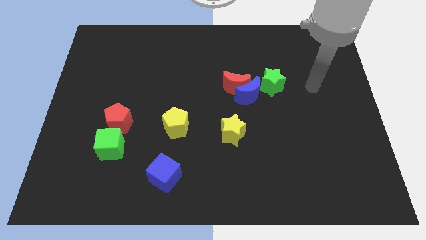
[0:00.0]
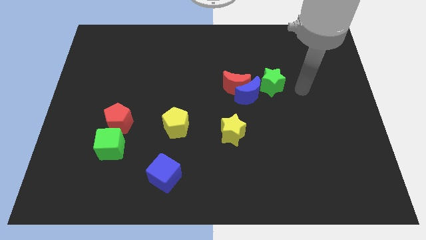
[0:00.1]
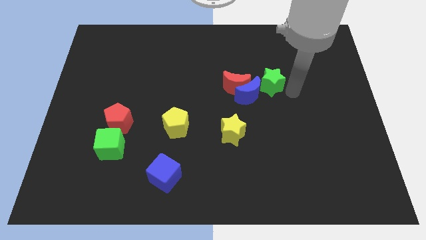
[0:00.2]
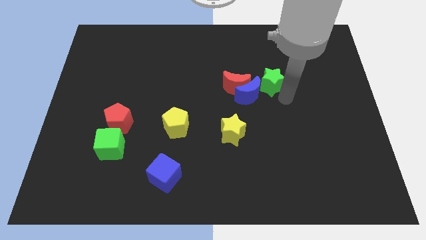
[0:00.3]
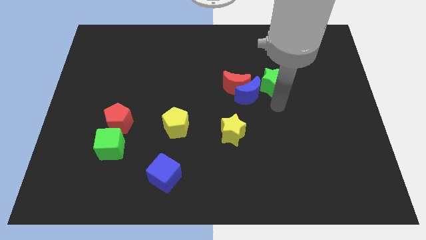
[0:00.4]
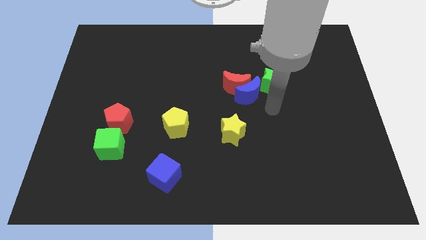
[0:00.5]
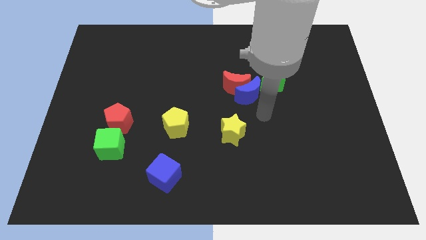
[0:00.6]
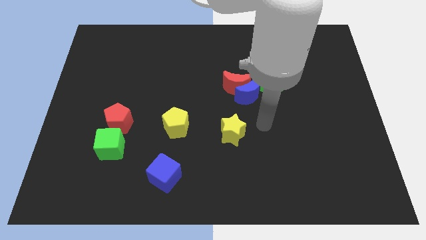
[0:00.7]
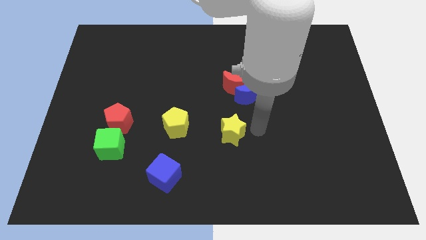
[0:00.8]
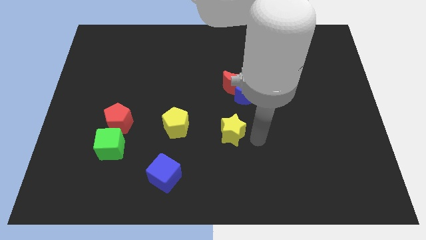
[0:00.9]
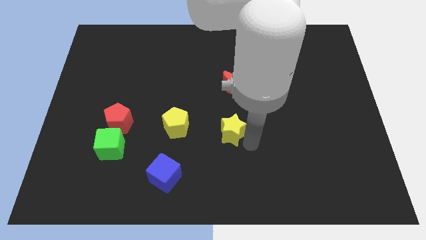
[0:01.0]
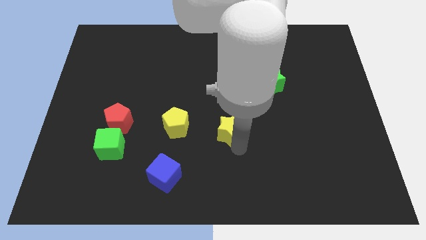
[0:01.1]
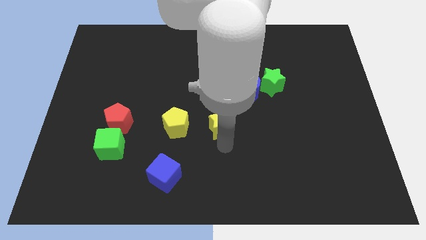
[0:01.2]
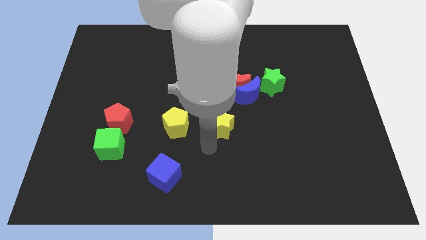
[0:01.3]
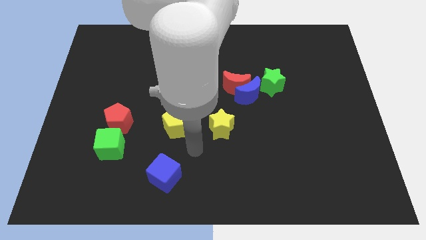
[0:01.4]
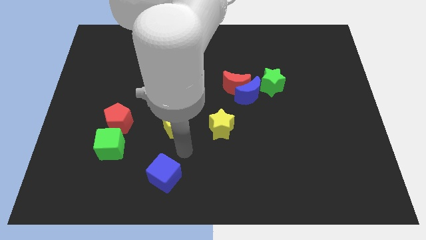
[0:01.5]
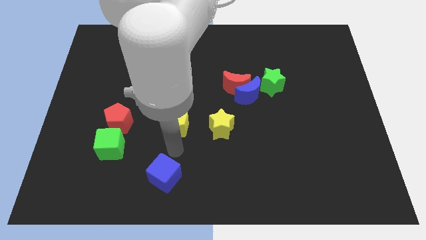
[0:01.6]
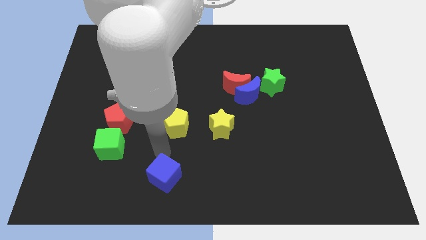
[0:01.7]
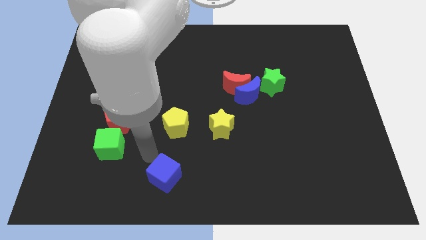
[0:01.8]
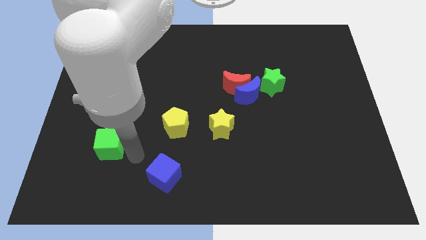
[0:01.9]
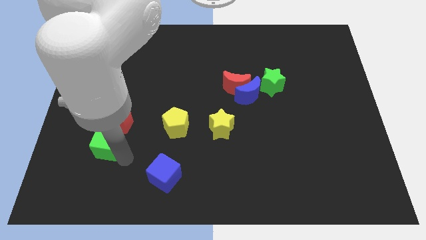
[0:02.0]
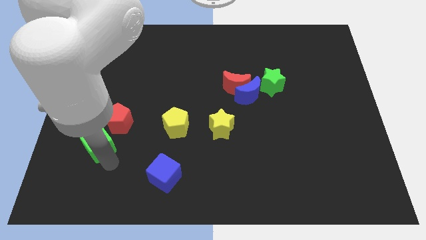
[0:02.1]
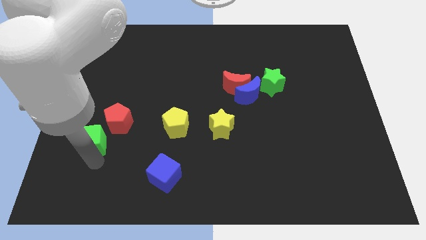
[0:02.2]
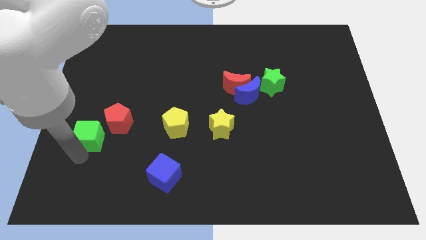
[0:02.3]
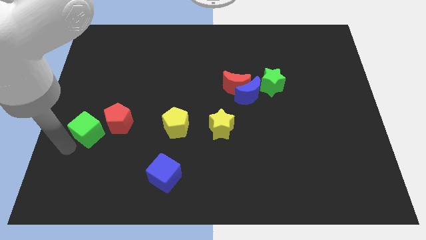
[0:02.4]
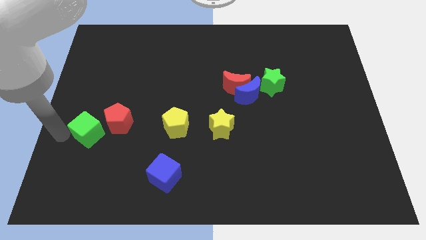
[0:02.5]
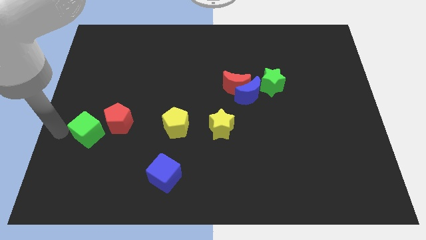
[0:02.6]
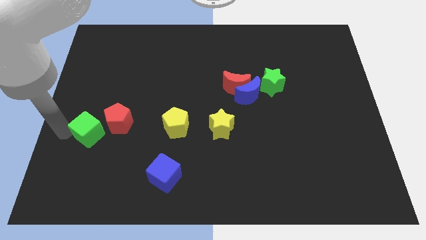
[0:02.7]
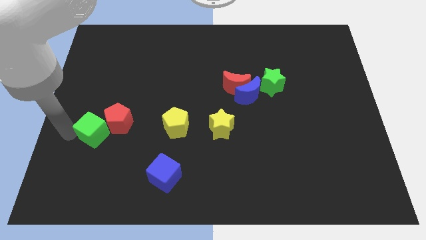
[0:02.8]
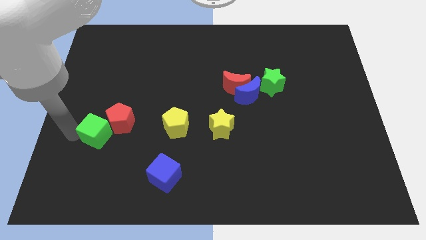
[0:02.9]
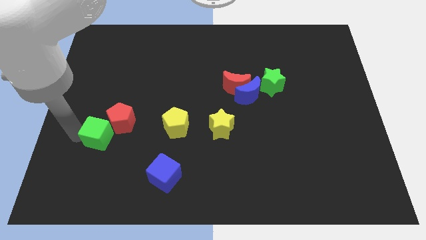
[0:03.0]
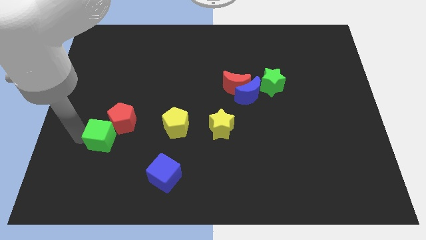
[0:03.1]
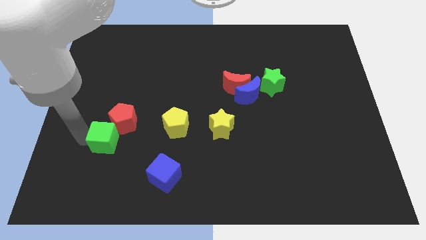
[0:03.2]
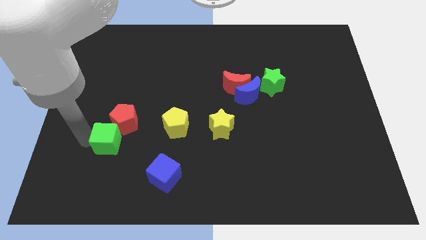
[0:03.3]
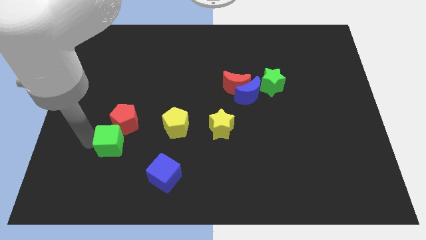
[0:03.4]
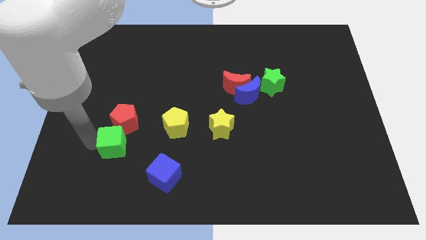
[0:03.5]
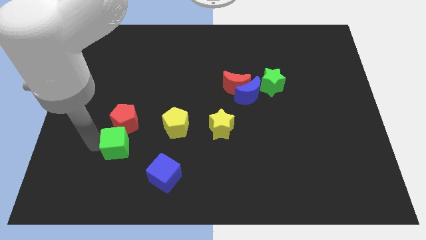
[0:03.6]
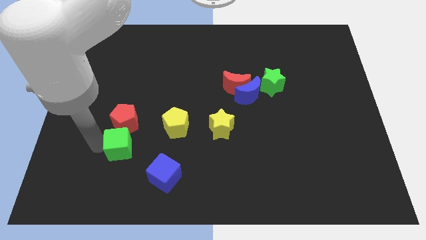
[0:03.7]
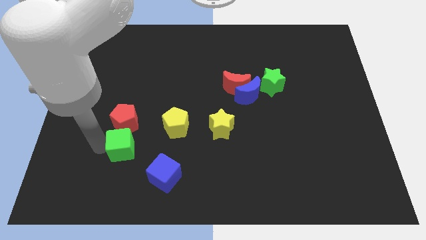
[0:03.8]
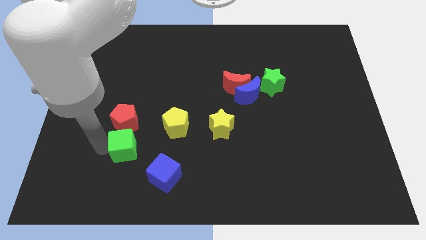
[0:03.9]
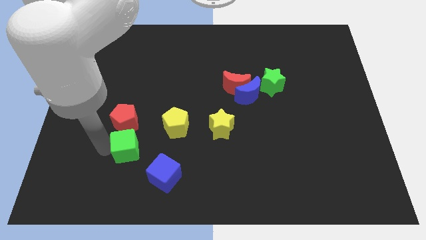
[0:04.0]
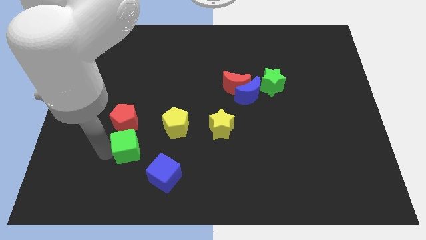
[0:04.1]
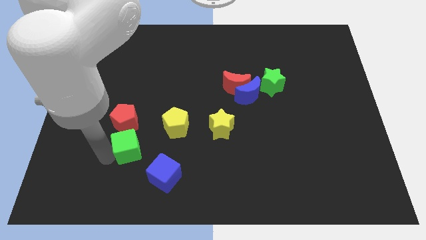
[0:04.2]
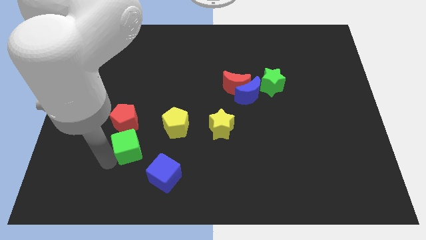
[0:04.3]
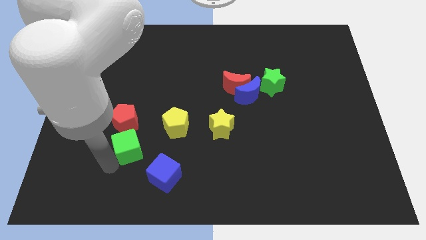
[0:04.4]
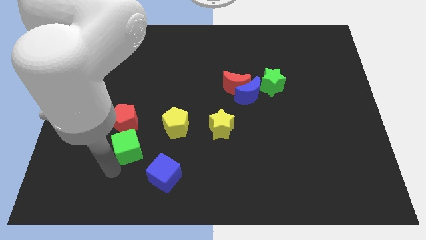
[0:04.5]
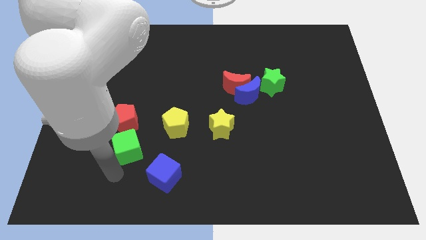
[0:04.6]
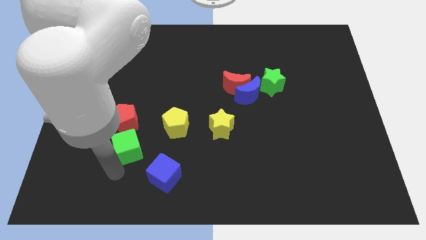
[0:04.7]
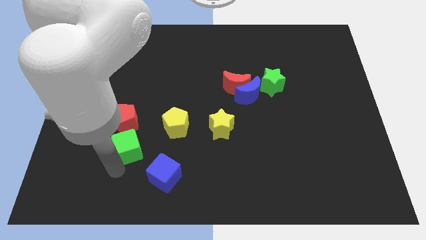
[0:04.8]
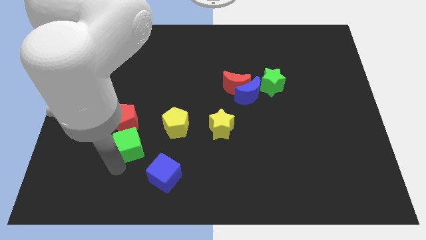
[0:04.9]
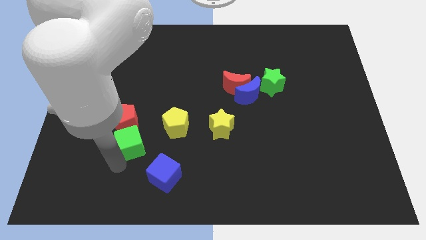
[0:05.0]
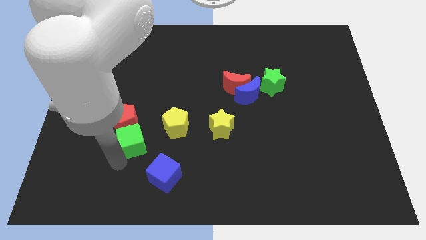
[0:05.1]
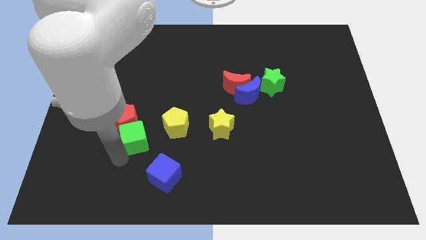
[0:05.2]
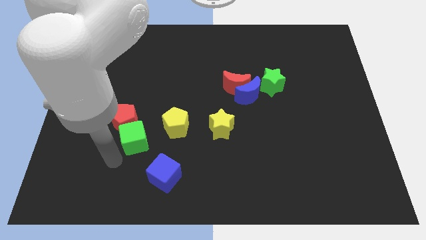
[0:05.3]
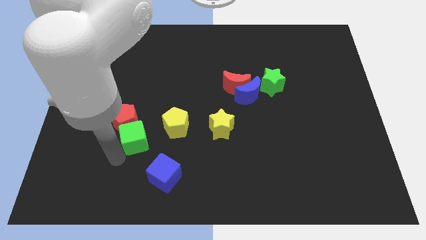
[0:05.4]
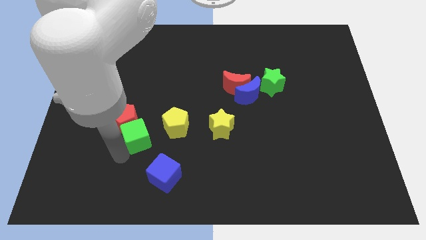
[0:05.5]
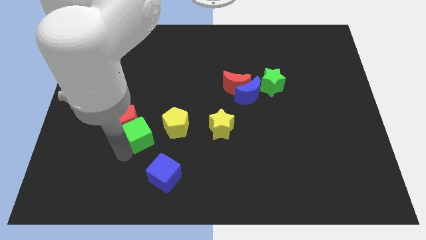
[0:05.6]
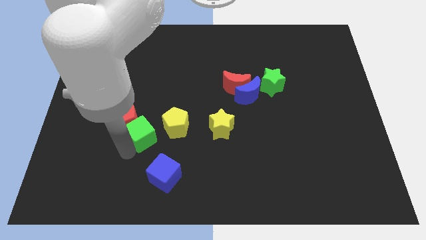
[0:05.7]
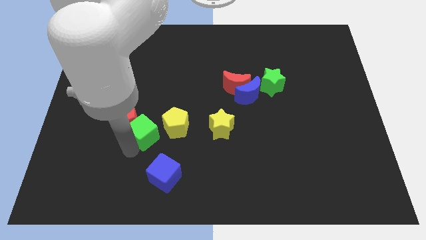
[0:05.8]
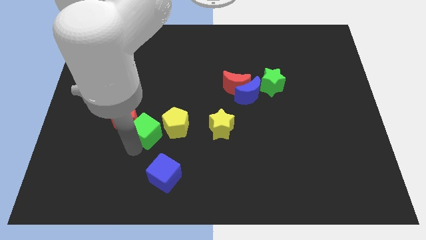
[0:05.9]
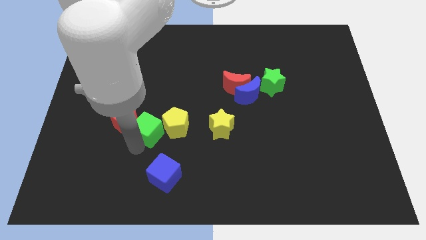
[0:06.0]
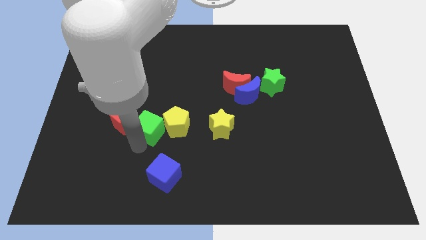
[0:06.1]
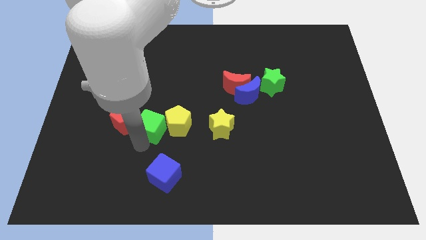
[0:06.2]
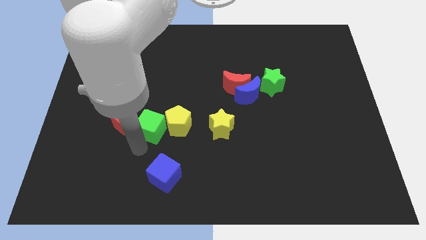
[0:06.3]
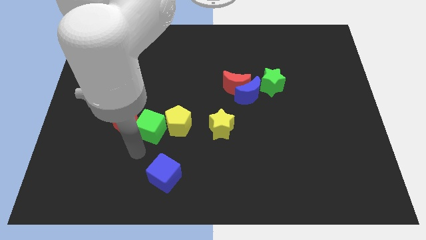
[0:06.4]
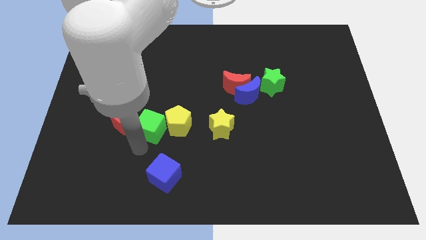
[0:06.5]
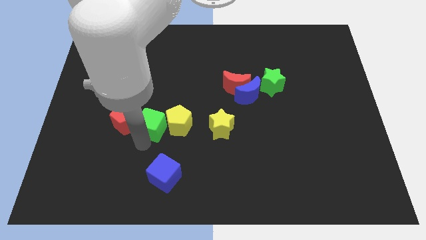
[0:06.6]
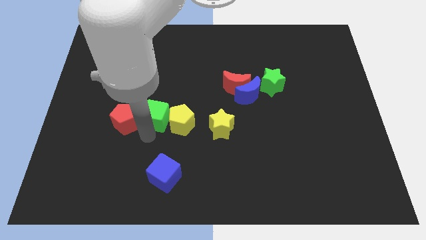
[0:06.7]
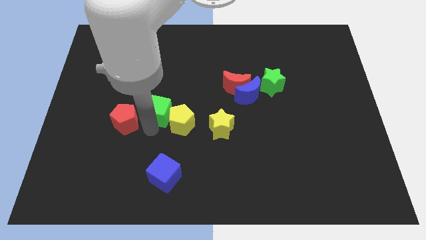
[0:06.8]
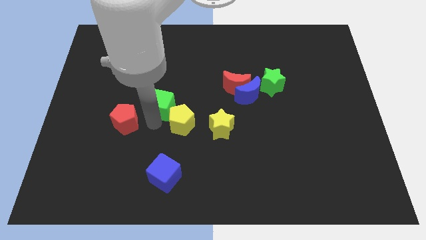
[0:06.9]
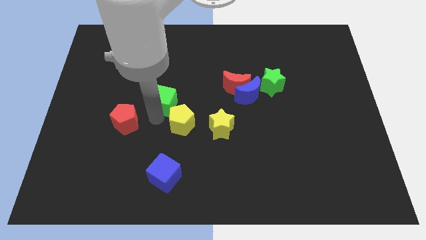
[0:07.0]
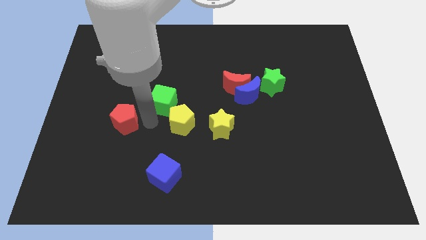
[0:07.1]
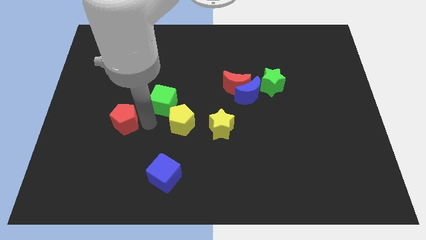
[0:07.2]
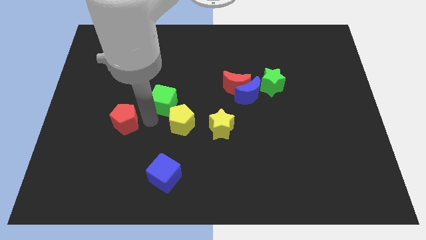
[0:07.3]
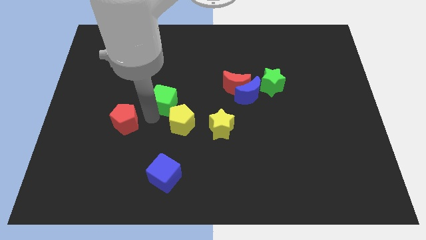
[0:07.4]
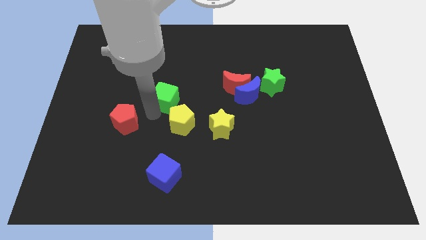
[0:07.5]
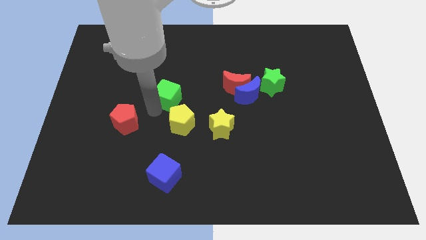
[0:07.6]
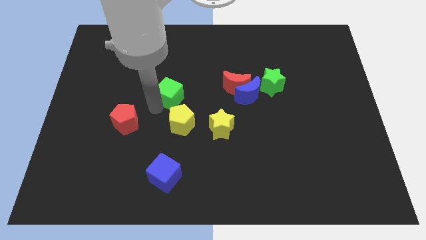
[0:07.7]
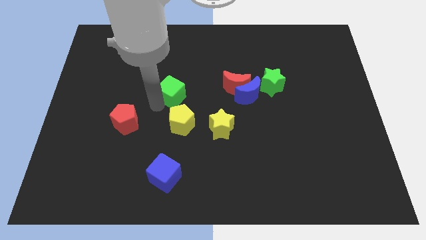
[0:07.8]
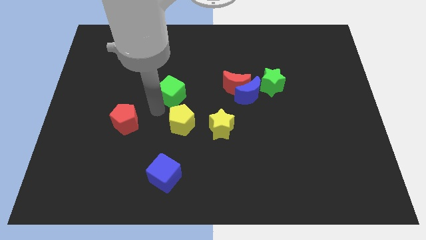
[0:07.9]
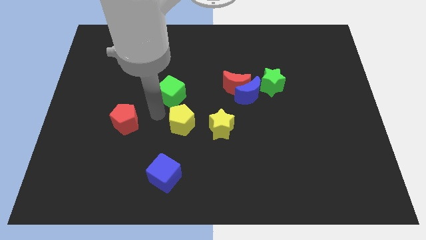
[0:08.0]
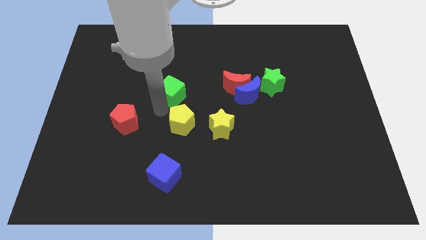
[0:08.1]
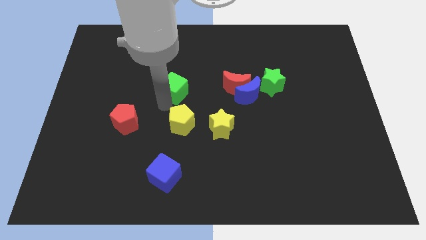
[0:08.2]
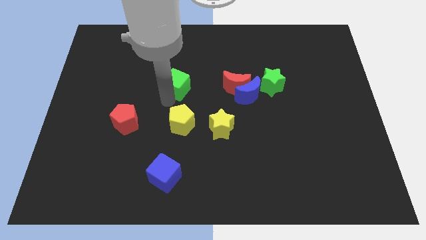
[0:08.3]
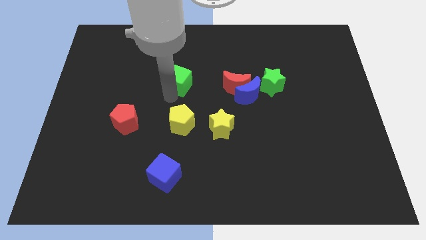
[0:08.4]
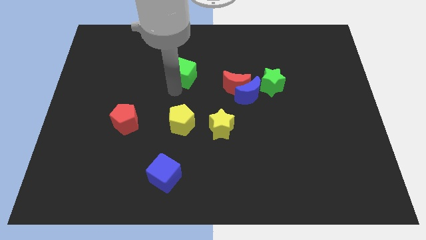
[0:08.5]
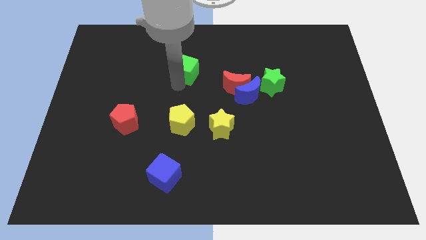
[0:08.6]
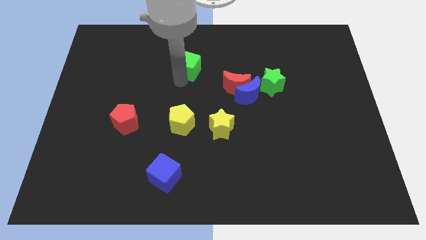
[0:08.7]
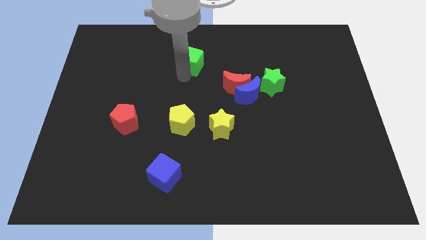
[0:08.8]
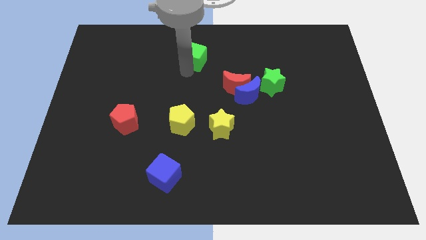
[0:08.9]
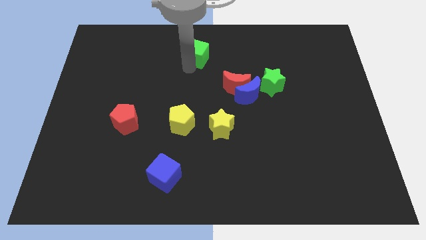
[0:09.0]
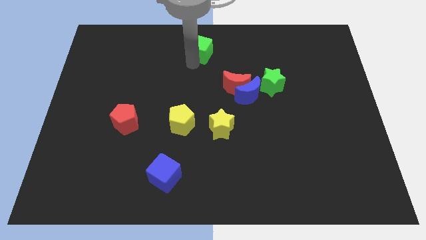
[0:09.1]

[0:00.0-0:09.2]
move the green cube to the top
